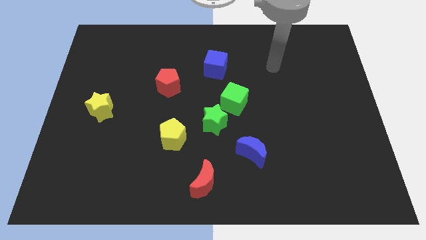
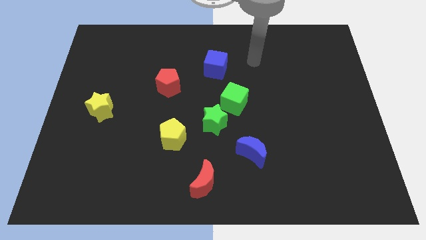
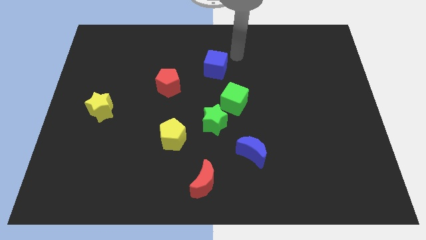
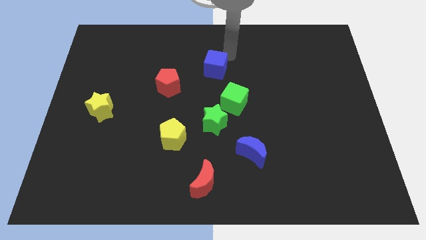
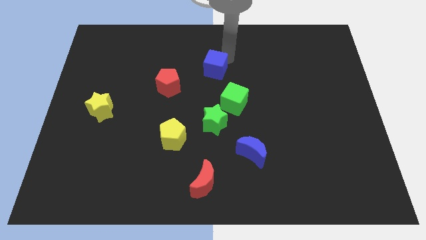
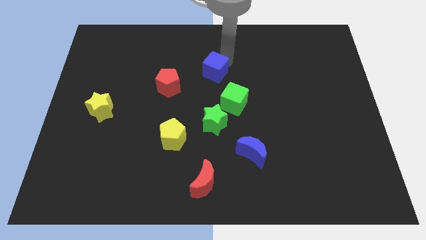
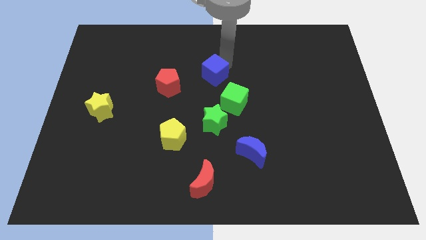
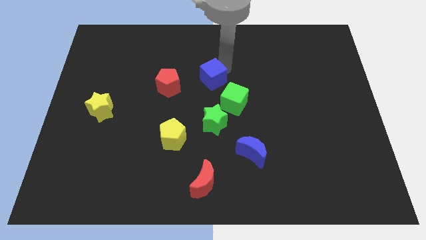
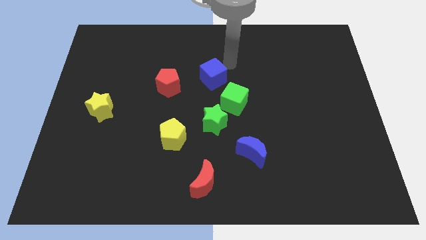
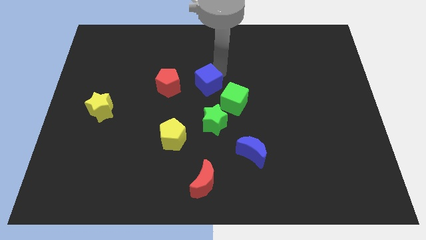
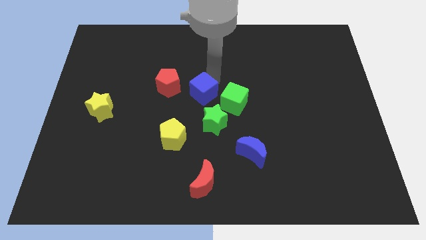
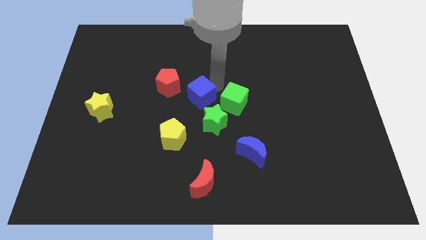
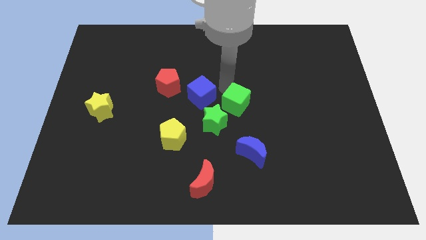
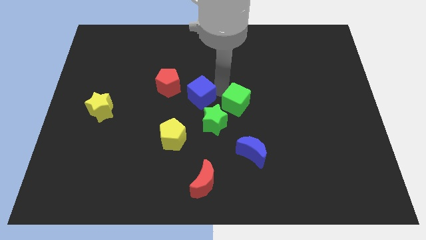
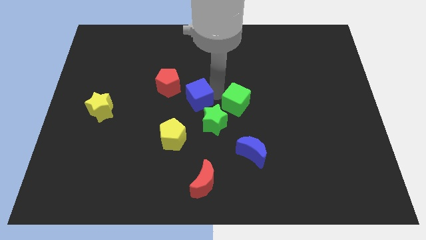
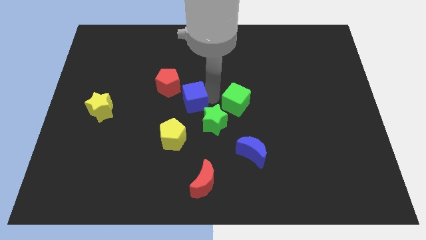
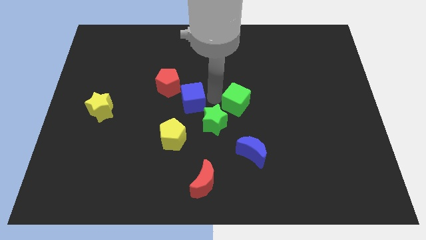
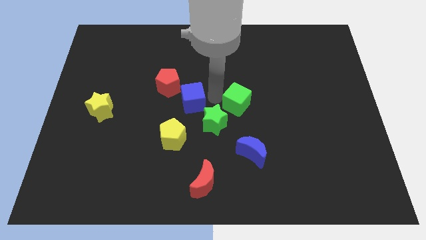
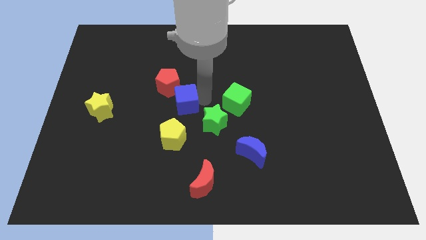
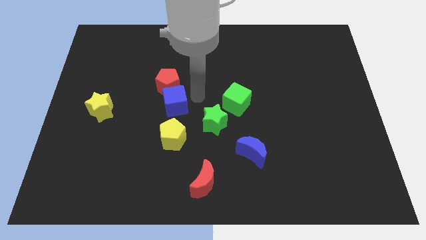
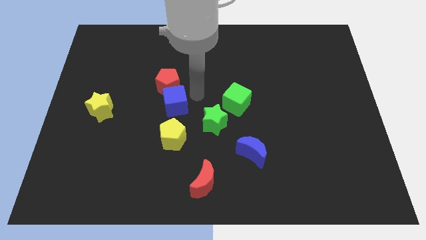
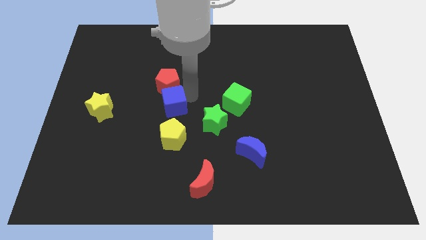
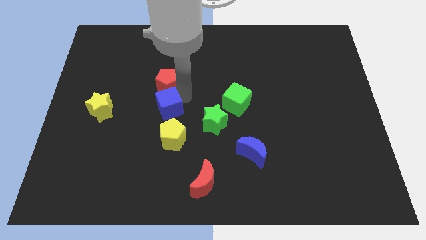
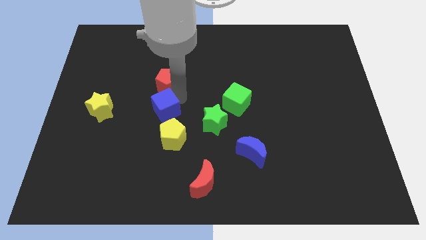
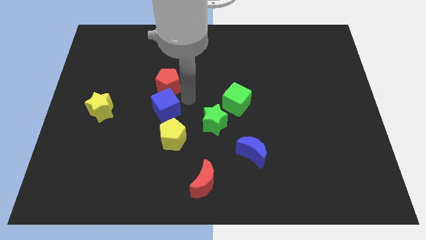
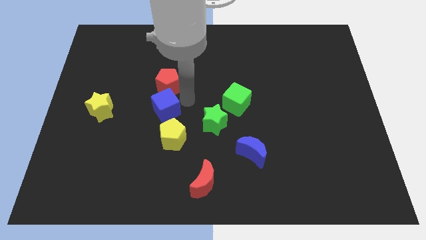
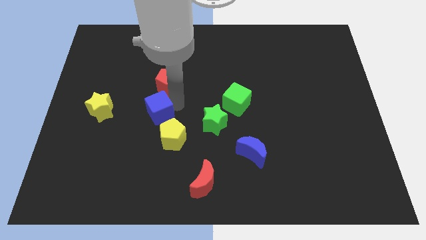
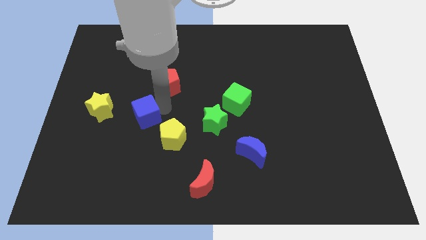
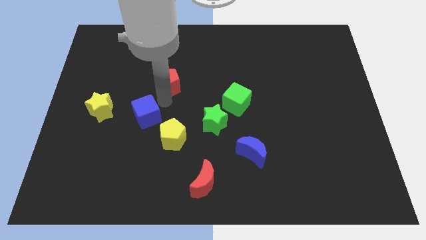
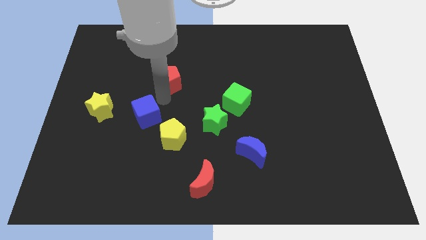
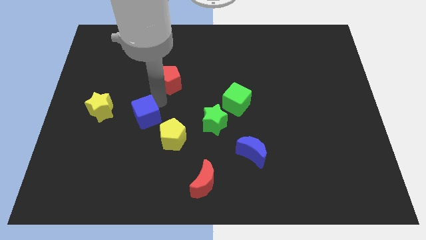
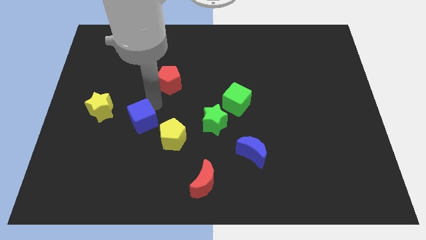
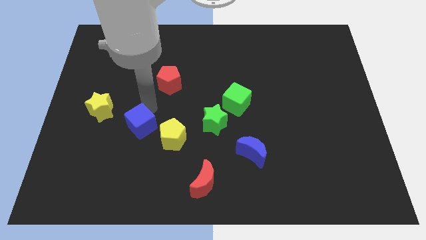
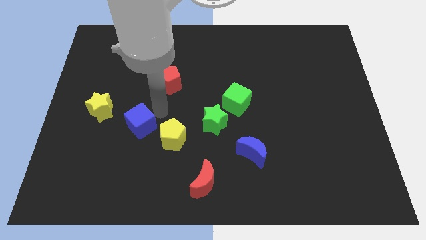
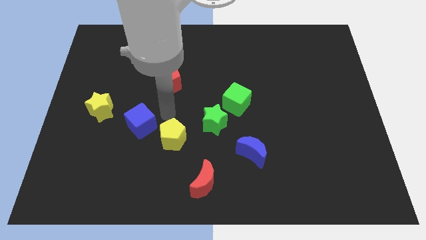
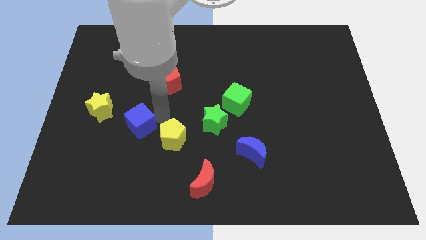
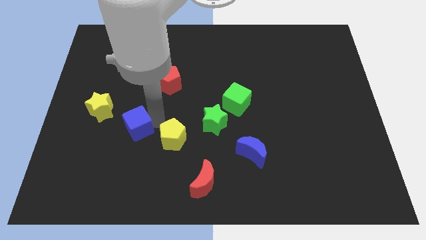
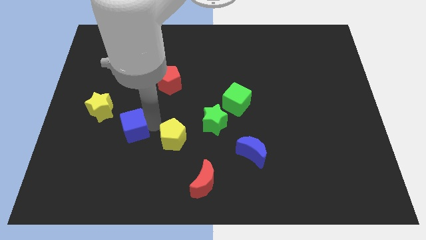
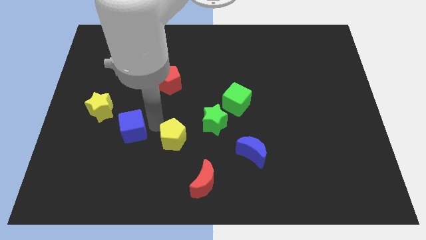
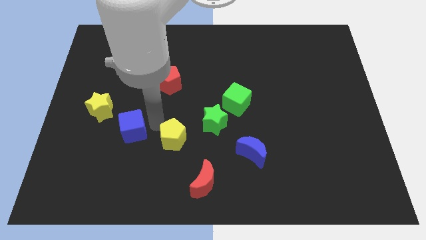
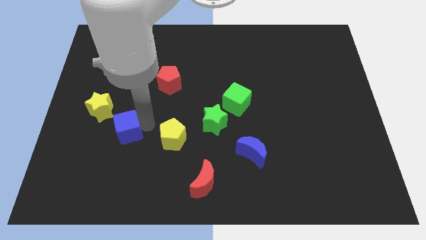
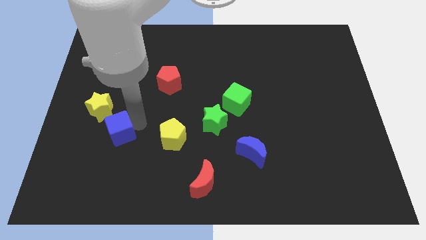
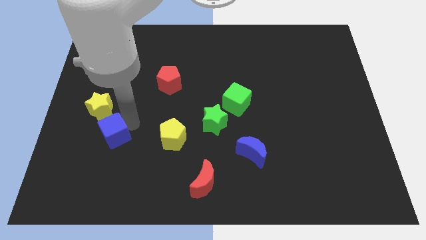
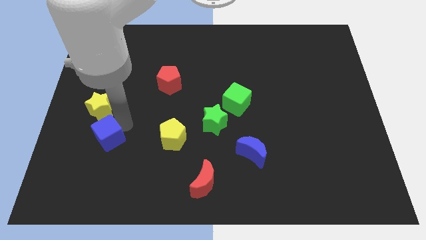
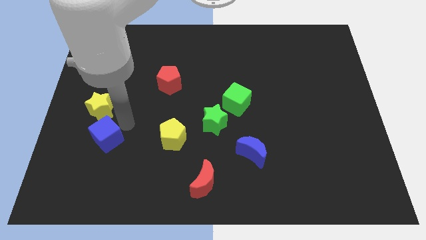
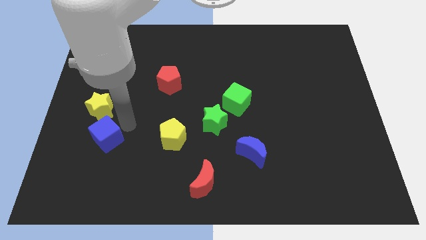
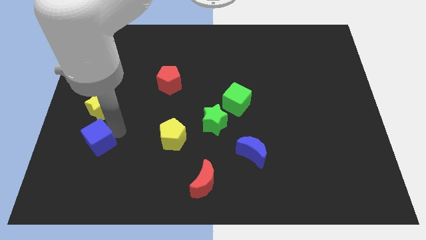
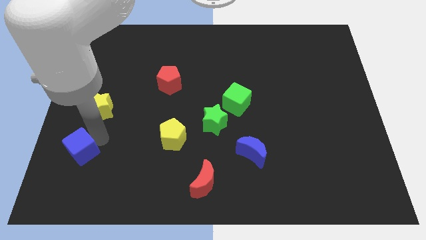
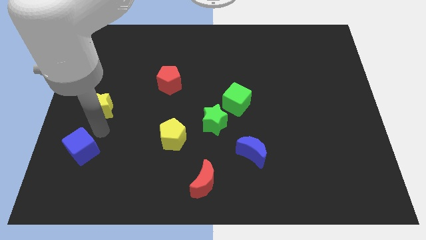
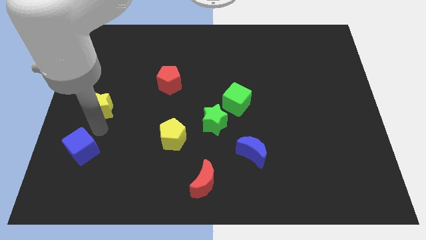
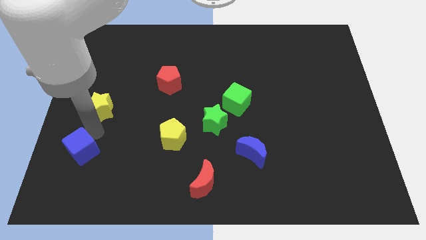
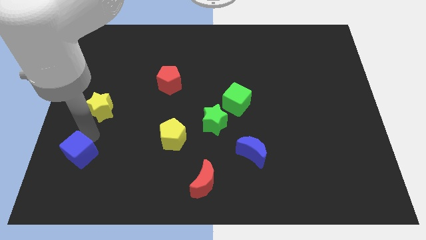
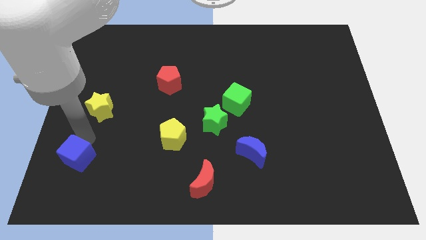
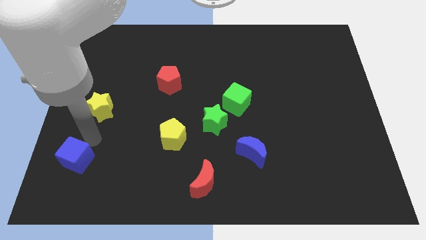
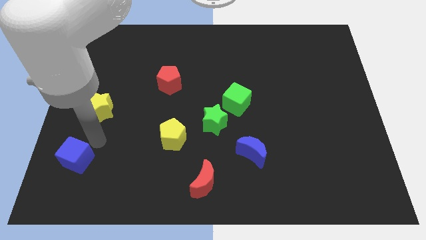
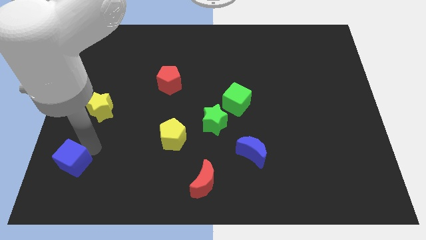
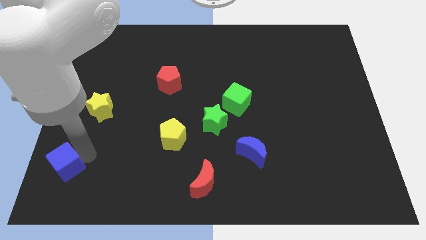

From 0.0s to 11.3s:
push the blue cube to the bottom left
